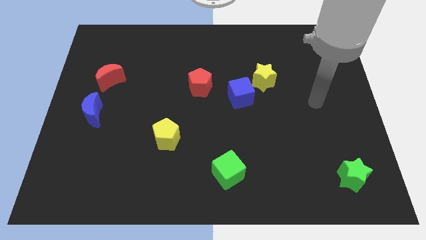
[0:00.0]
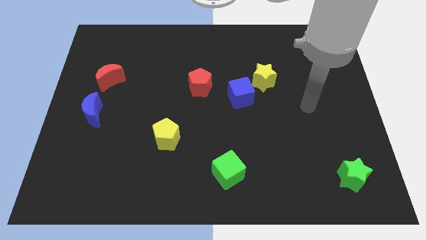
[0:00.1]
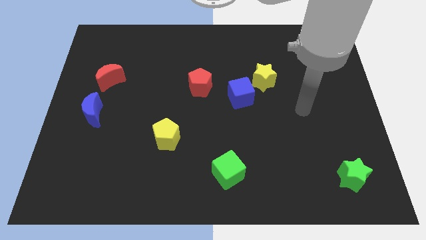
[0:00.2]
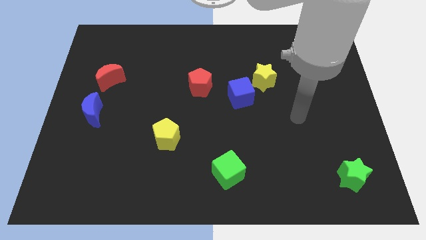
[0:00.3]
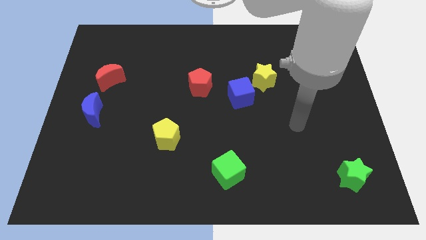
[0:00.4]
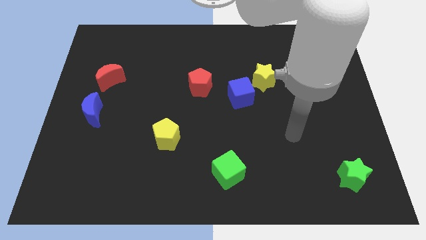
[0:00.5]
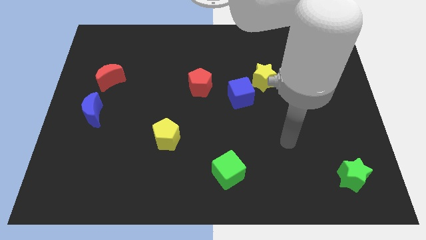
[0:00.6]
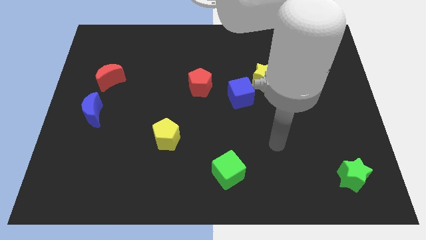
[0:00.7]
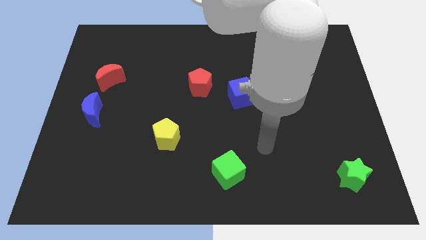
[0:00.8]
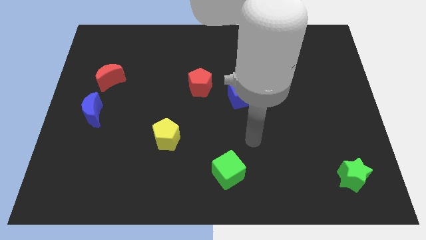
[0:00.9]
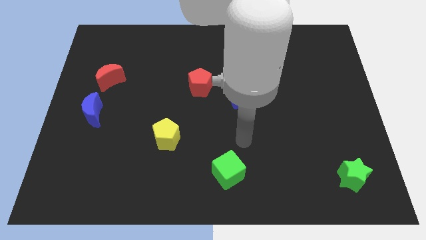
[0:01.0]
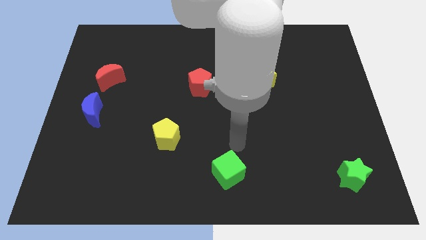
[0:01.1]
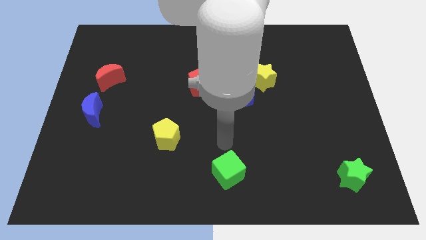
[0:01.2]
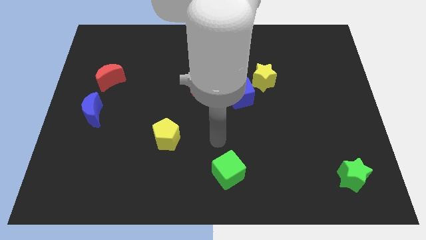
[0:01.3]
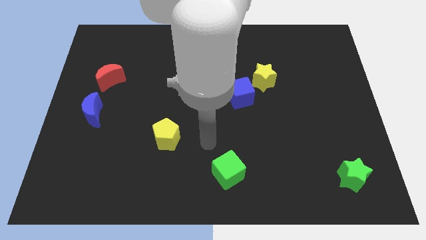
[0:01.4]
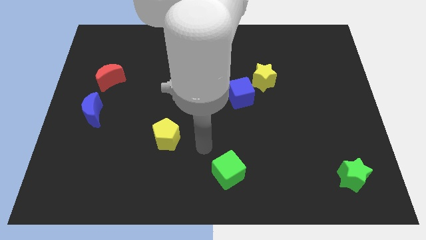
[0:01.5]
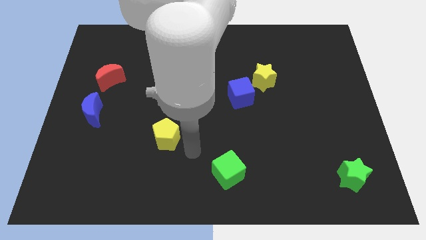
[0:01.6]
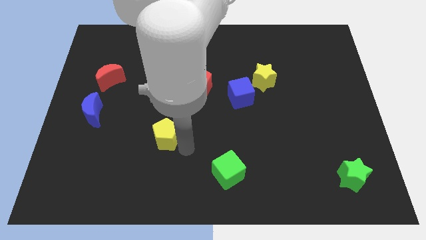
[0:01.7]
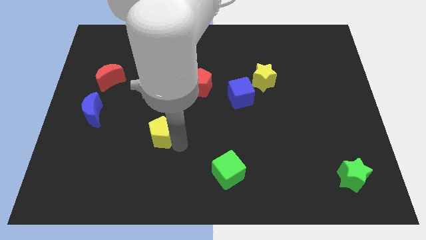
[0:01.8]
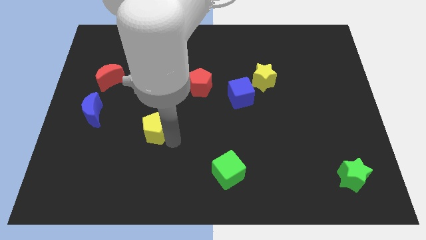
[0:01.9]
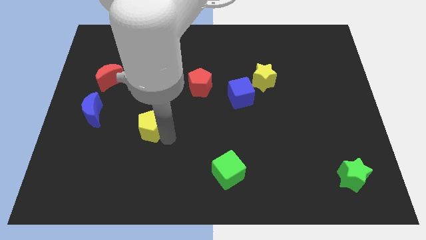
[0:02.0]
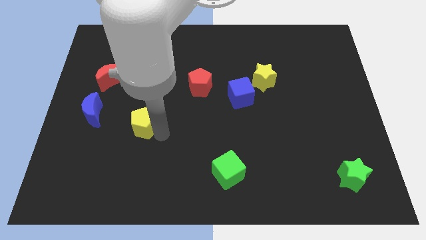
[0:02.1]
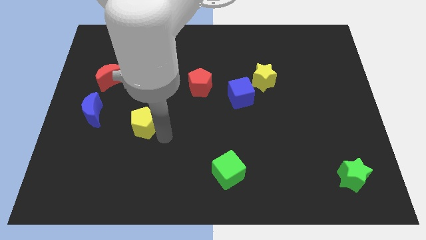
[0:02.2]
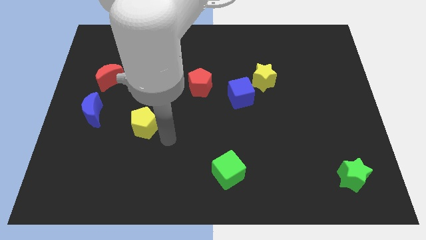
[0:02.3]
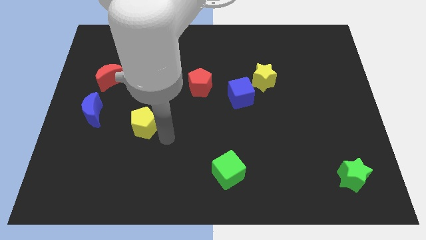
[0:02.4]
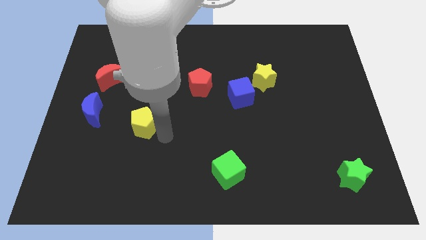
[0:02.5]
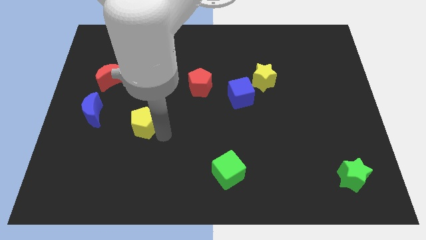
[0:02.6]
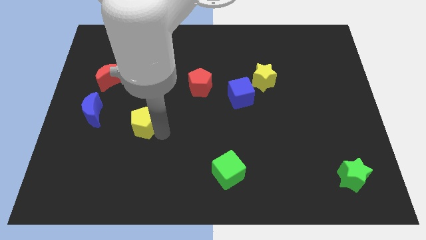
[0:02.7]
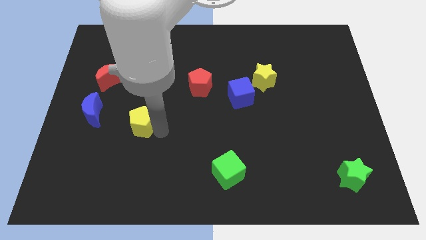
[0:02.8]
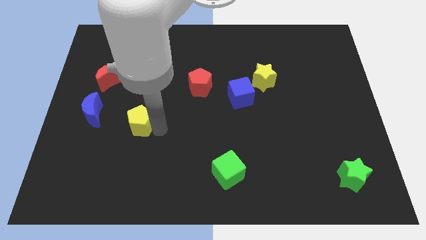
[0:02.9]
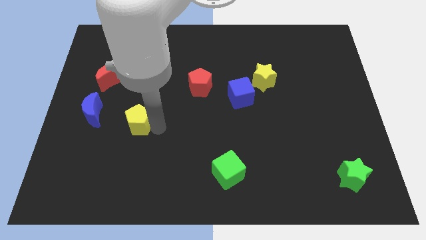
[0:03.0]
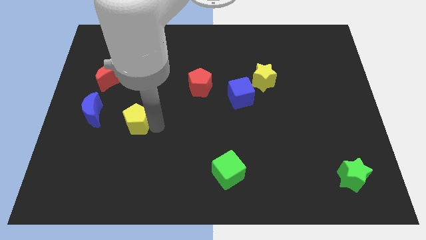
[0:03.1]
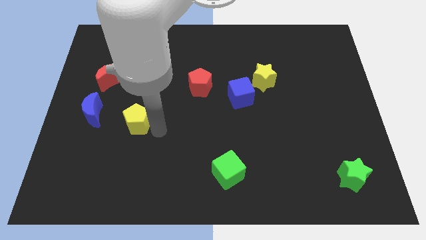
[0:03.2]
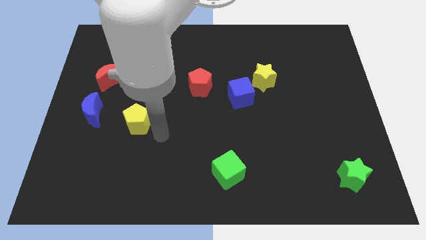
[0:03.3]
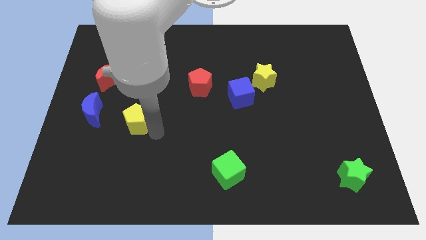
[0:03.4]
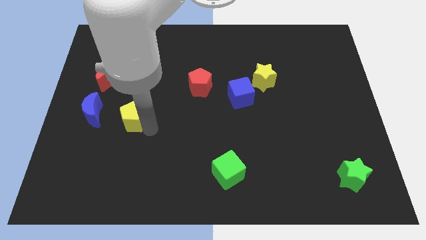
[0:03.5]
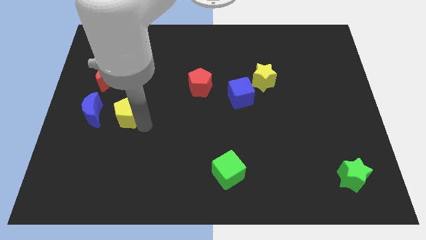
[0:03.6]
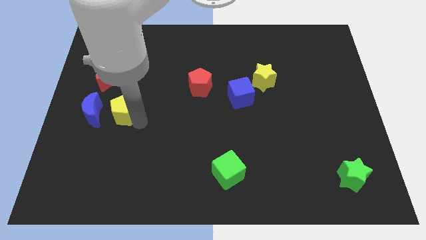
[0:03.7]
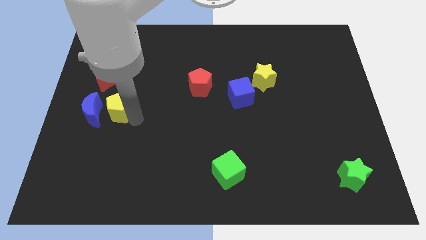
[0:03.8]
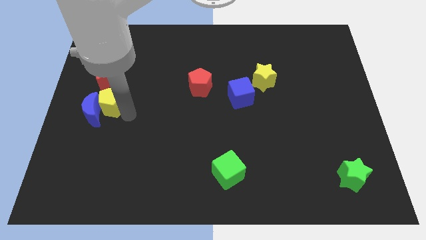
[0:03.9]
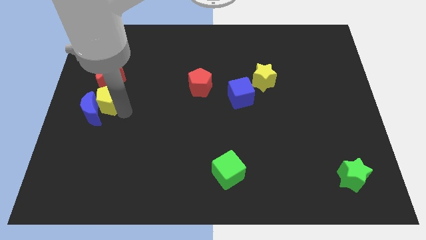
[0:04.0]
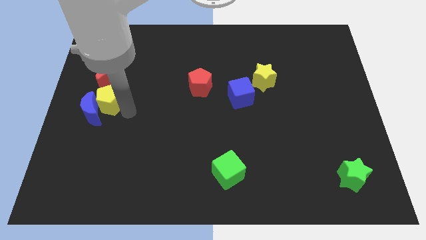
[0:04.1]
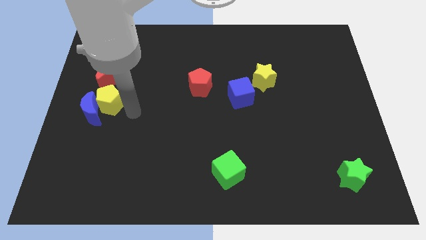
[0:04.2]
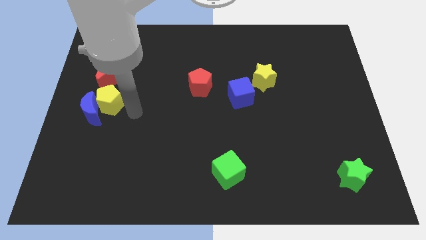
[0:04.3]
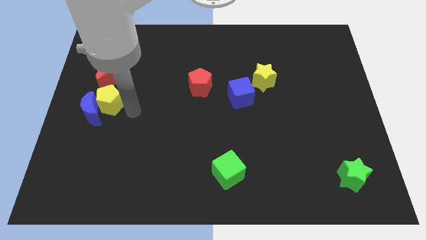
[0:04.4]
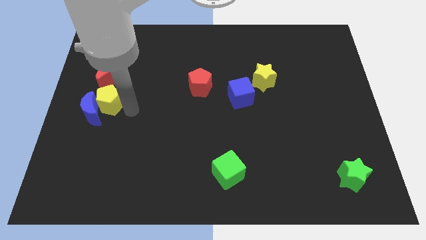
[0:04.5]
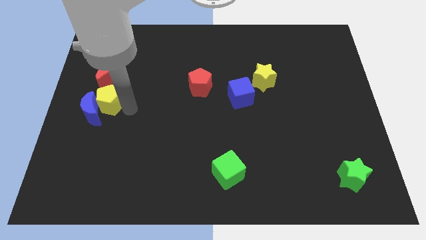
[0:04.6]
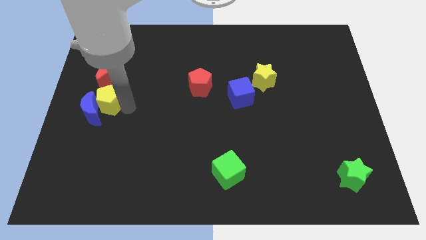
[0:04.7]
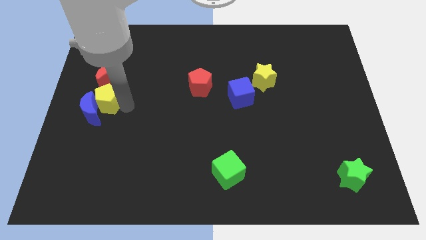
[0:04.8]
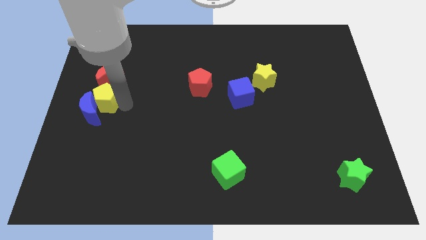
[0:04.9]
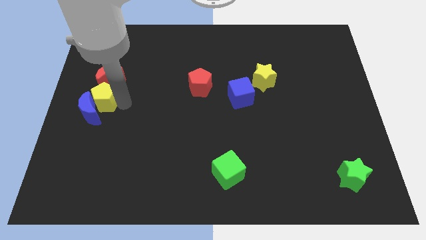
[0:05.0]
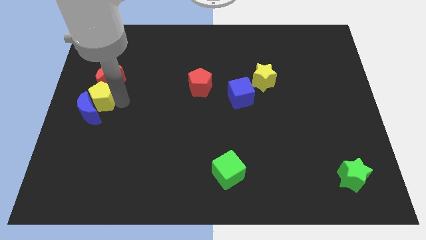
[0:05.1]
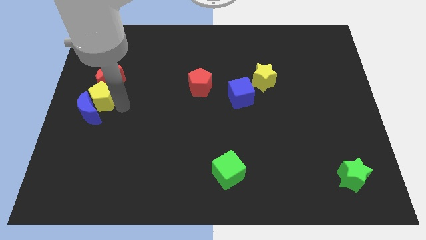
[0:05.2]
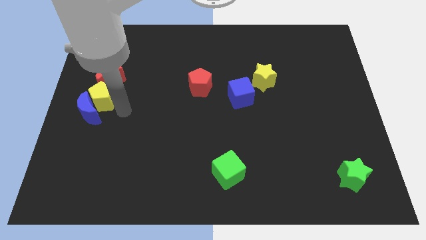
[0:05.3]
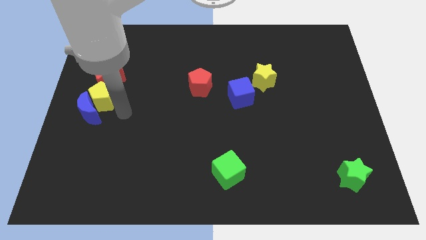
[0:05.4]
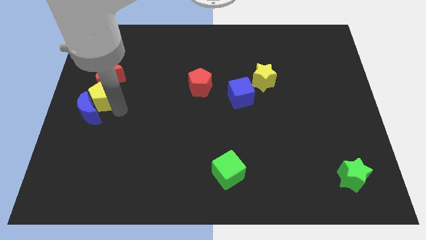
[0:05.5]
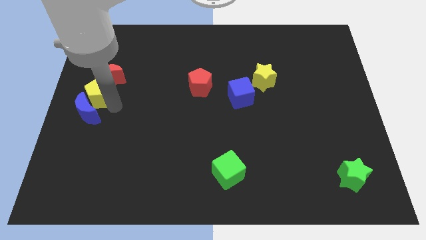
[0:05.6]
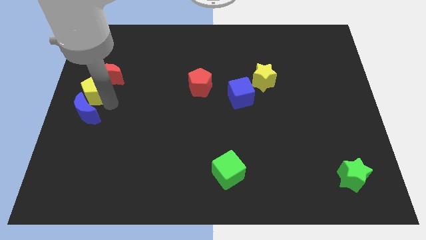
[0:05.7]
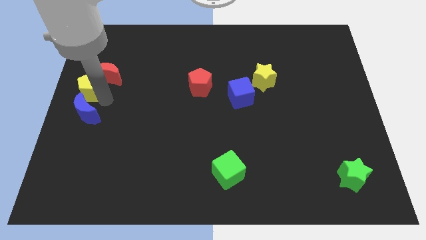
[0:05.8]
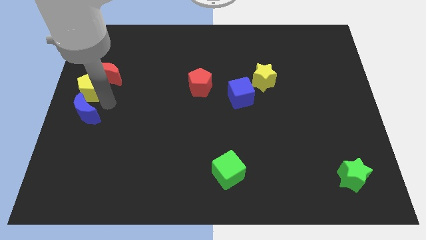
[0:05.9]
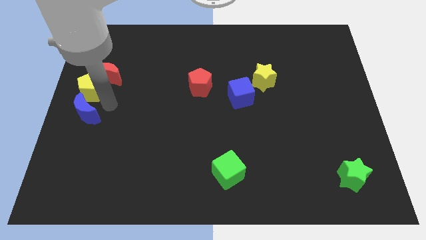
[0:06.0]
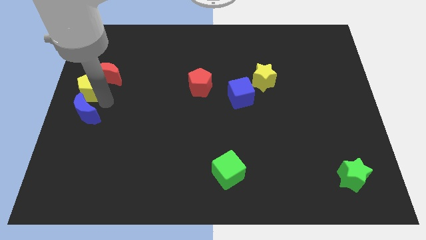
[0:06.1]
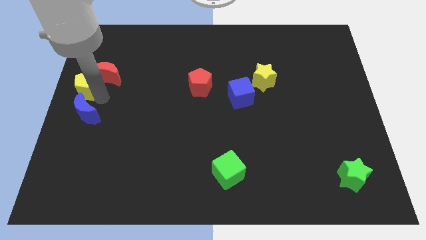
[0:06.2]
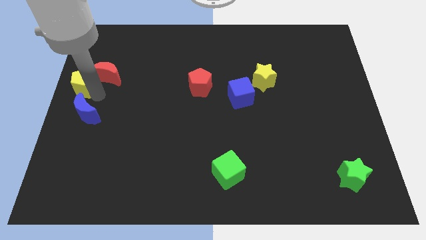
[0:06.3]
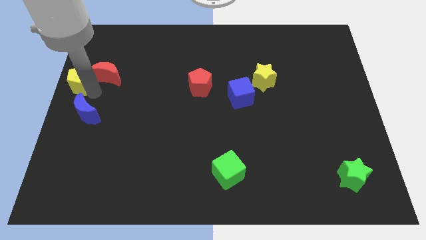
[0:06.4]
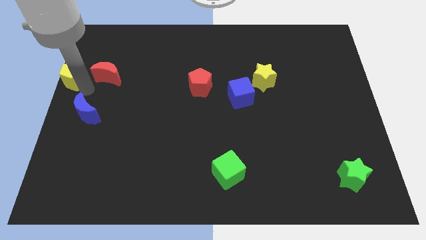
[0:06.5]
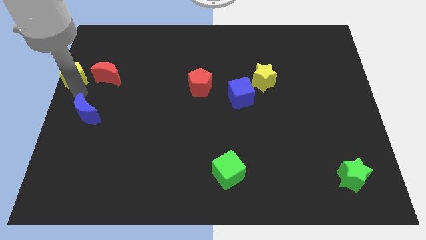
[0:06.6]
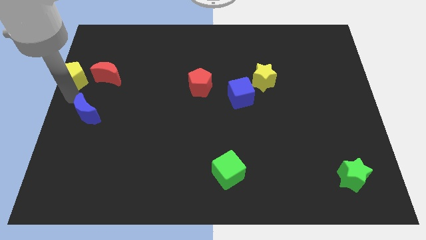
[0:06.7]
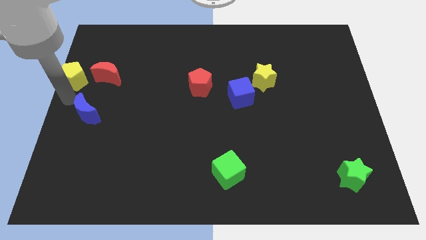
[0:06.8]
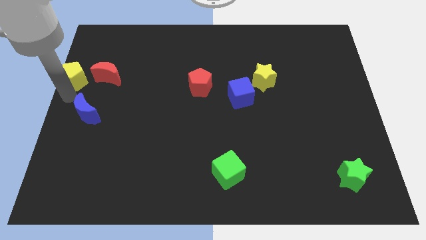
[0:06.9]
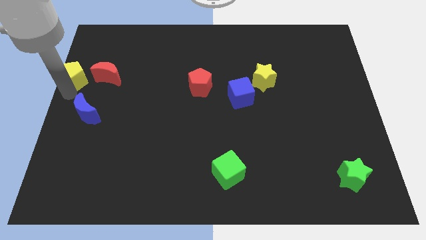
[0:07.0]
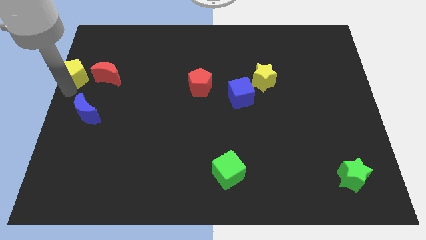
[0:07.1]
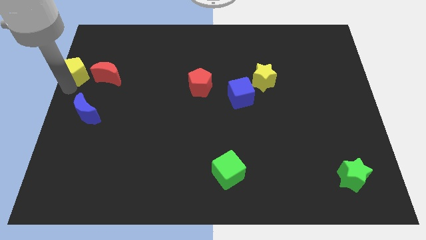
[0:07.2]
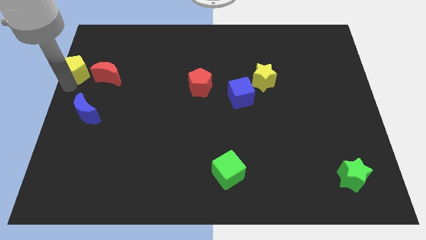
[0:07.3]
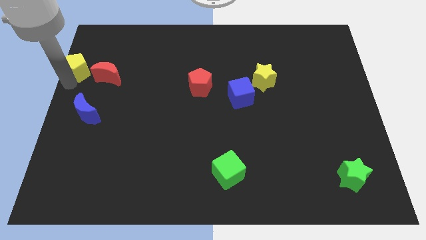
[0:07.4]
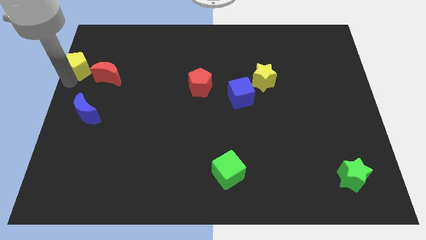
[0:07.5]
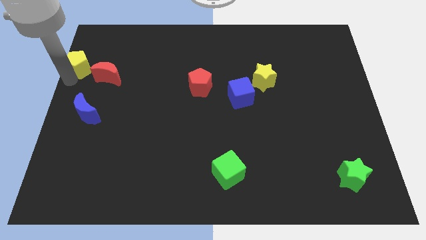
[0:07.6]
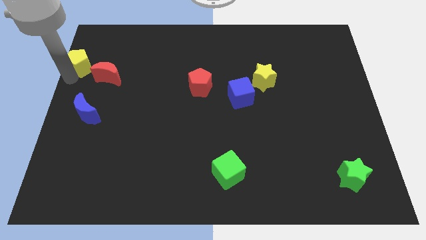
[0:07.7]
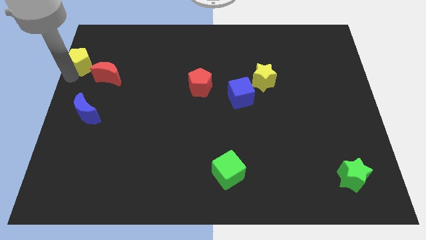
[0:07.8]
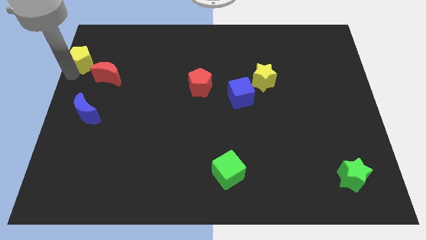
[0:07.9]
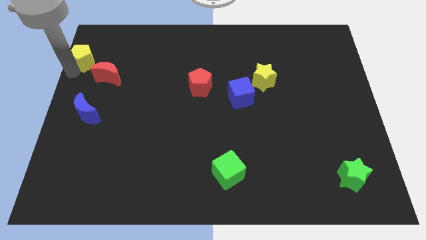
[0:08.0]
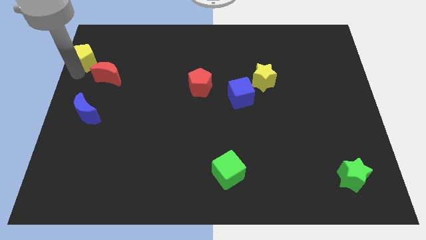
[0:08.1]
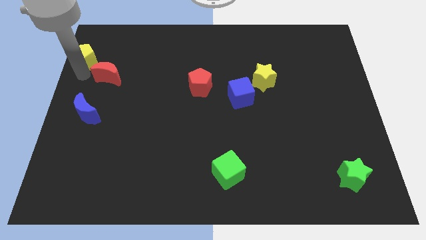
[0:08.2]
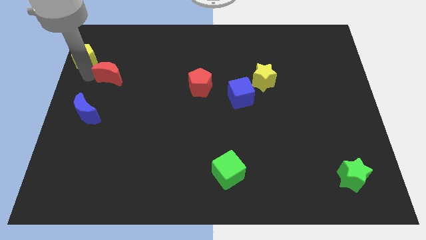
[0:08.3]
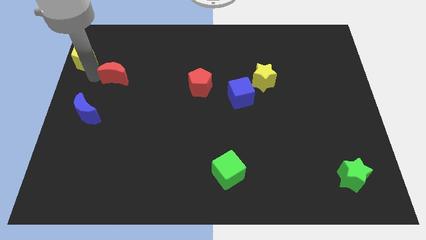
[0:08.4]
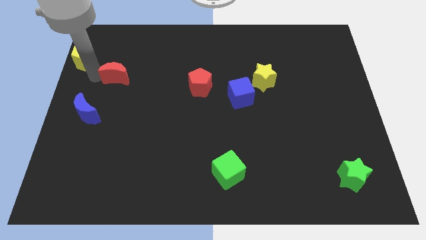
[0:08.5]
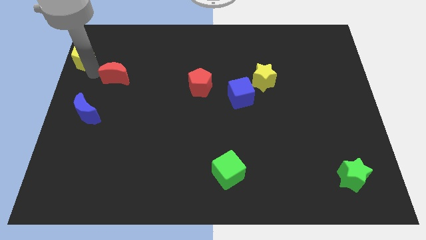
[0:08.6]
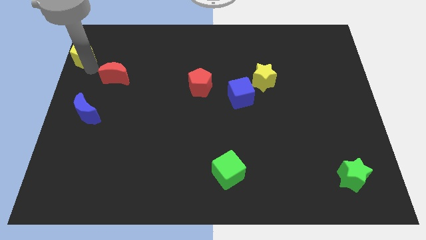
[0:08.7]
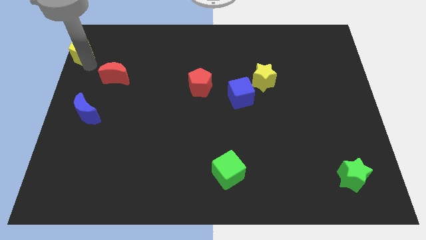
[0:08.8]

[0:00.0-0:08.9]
slide the yellow pentagon to the top left
